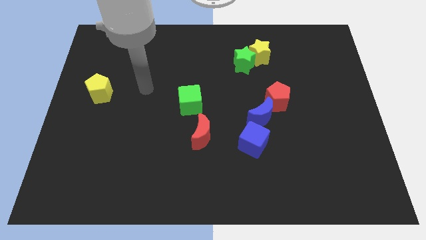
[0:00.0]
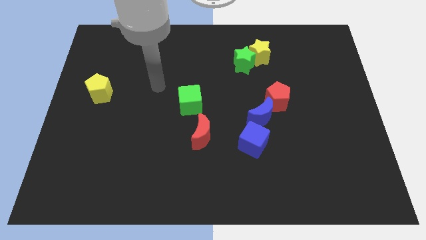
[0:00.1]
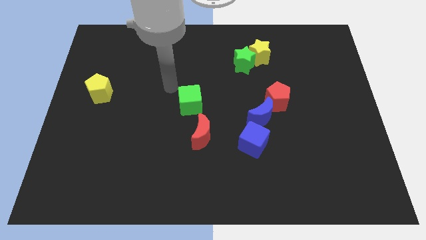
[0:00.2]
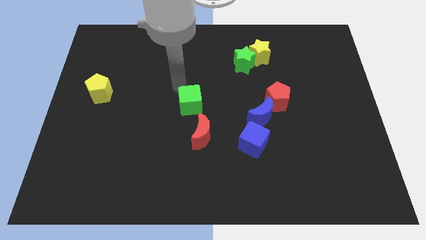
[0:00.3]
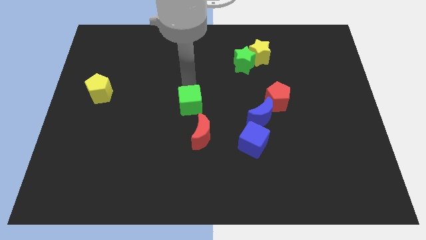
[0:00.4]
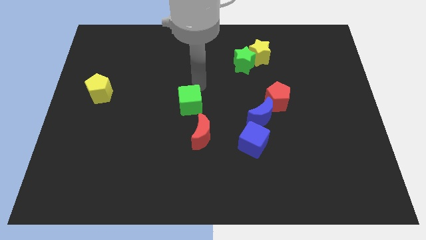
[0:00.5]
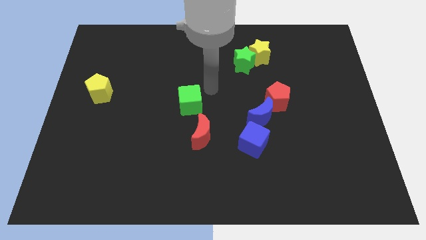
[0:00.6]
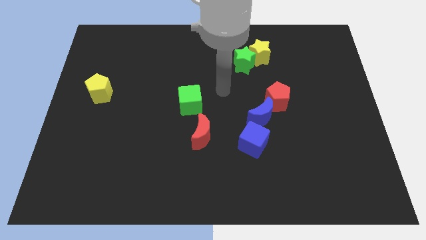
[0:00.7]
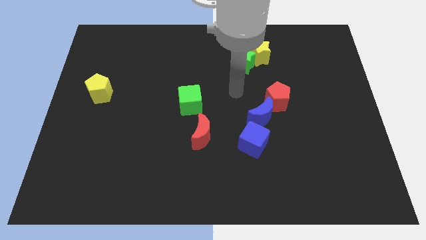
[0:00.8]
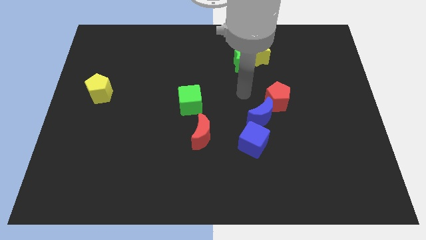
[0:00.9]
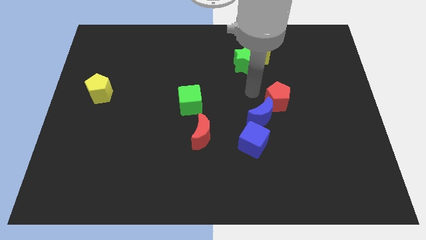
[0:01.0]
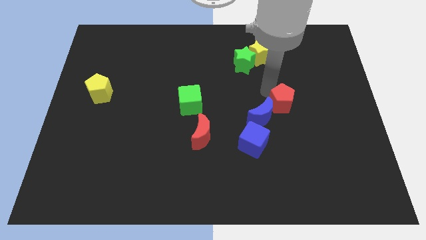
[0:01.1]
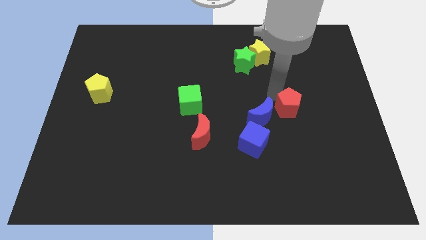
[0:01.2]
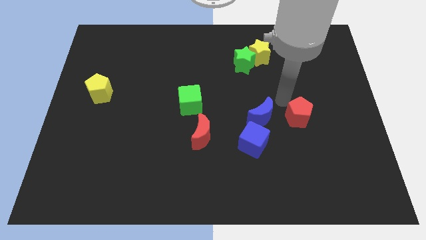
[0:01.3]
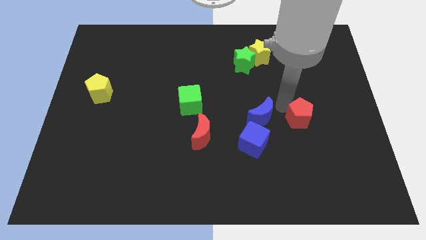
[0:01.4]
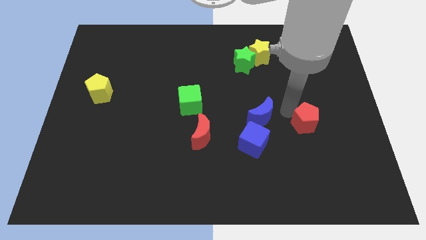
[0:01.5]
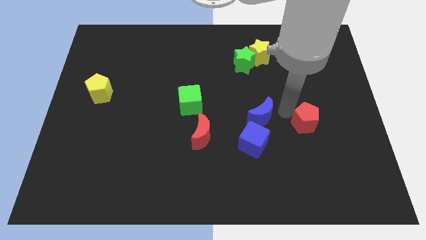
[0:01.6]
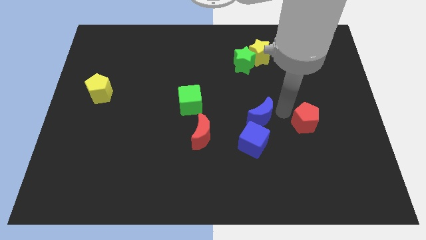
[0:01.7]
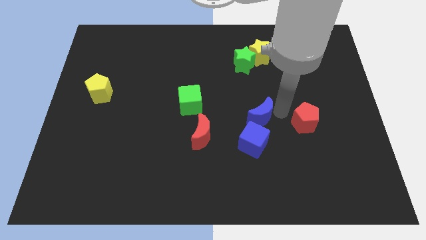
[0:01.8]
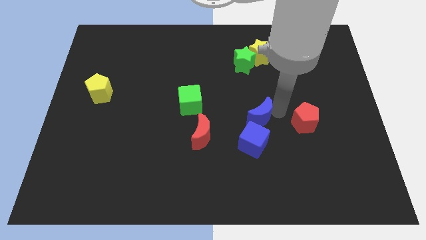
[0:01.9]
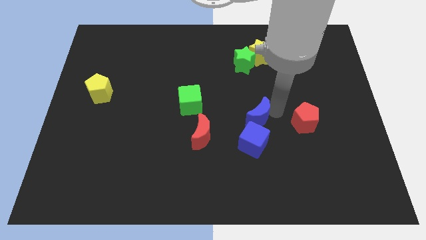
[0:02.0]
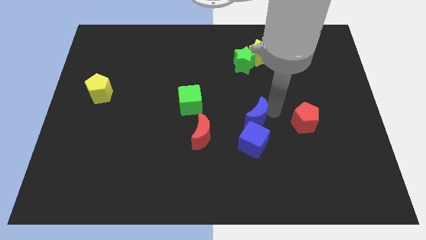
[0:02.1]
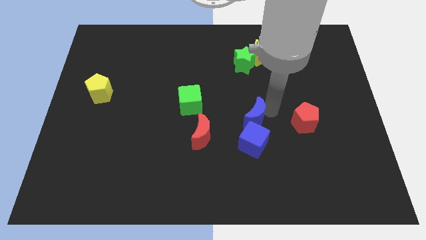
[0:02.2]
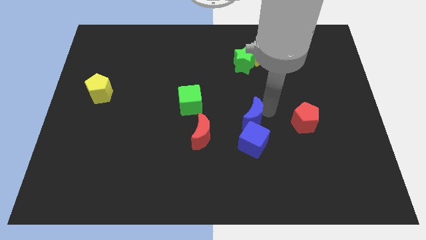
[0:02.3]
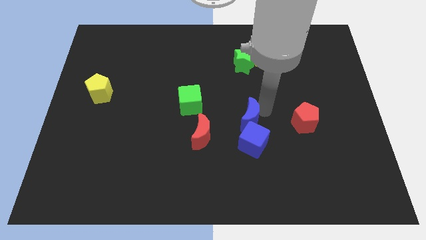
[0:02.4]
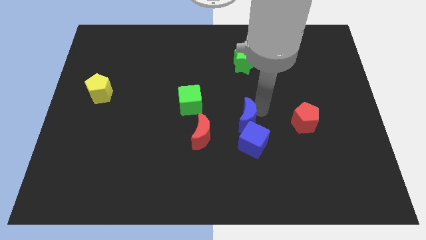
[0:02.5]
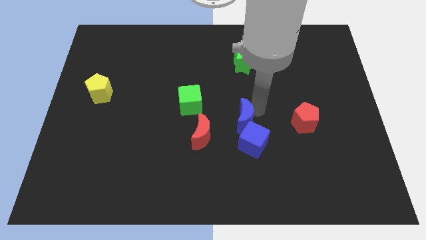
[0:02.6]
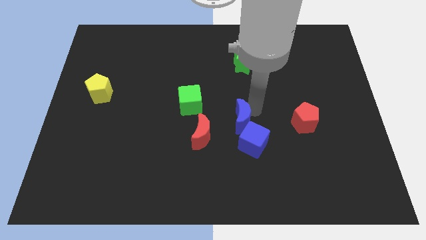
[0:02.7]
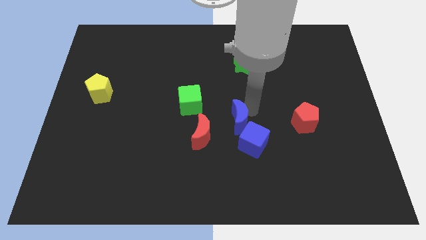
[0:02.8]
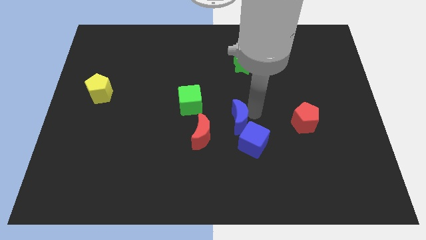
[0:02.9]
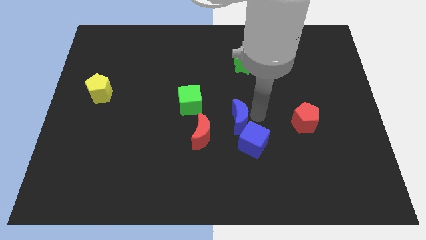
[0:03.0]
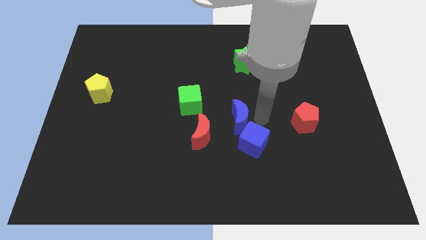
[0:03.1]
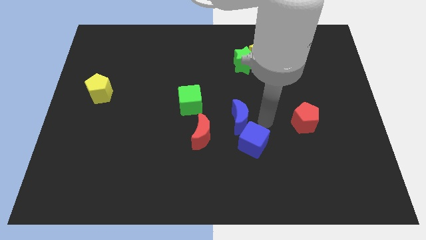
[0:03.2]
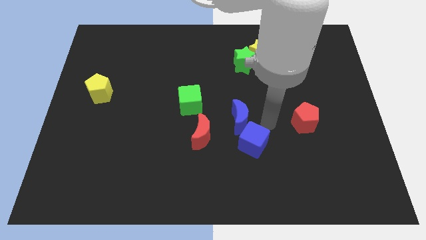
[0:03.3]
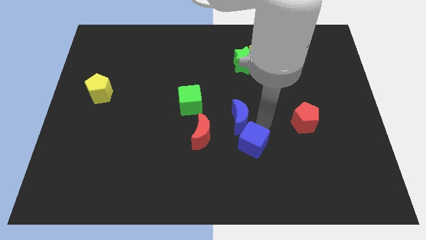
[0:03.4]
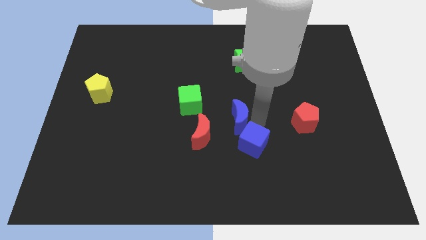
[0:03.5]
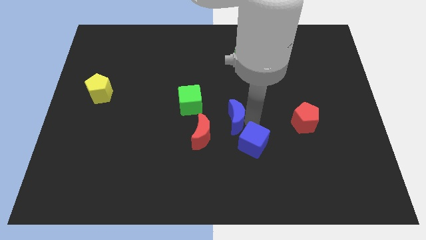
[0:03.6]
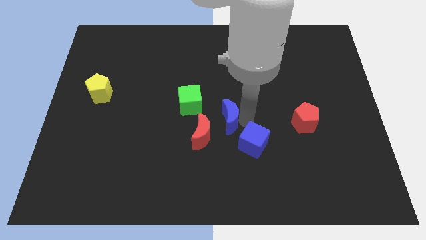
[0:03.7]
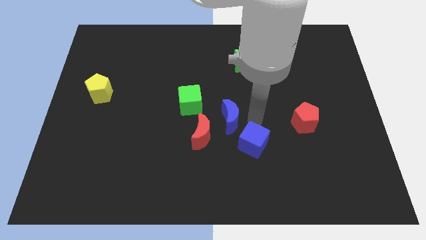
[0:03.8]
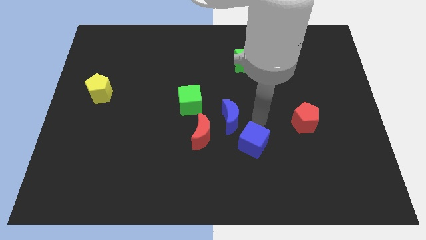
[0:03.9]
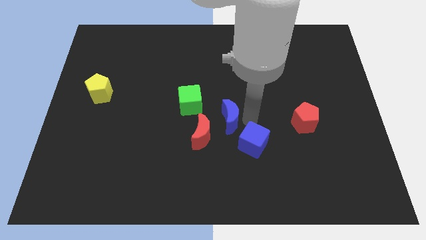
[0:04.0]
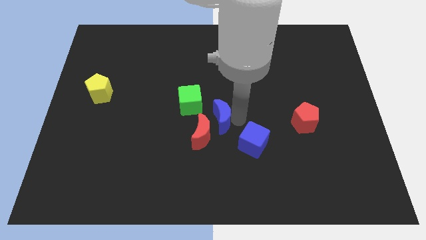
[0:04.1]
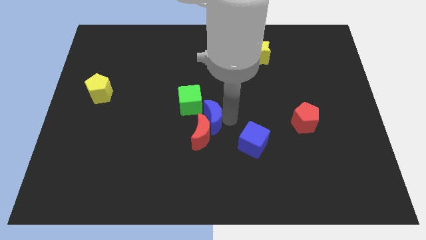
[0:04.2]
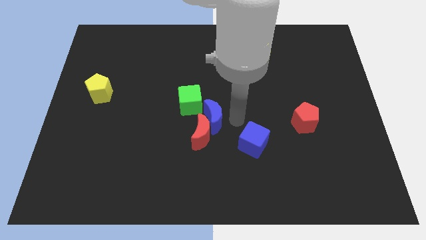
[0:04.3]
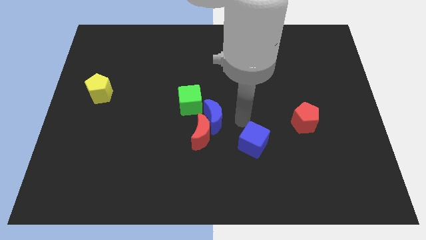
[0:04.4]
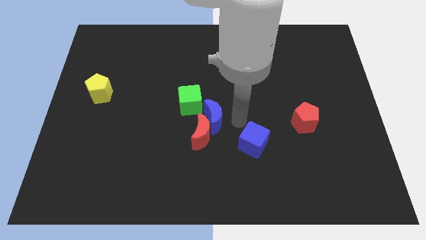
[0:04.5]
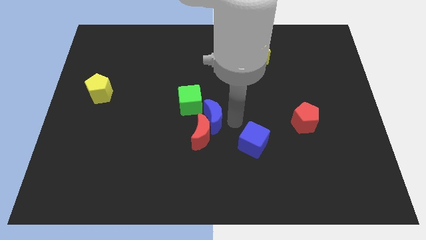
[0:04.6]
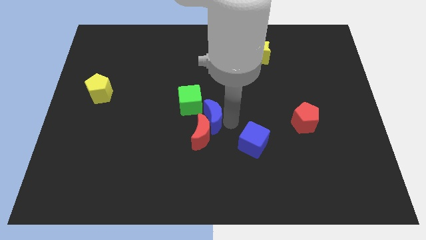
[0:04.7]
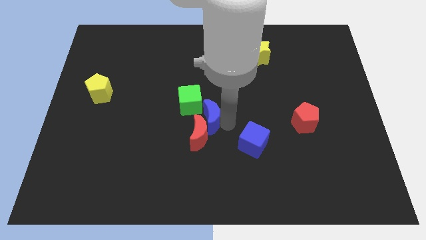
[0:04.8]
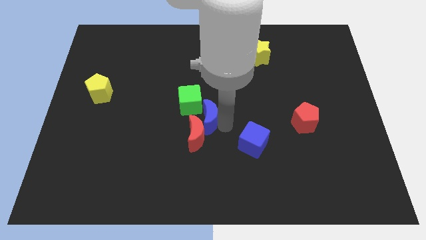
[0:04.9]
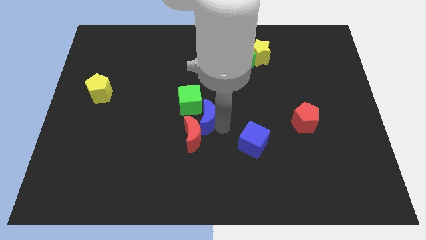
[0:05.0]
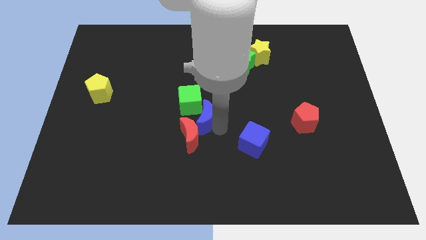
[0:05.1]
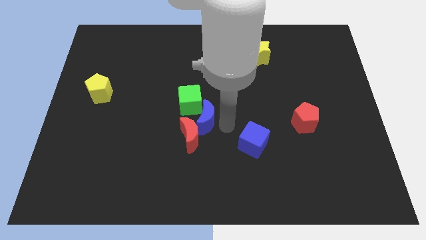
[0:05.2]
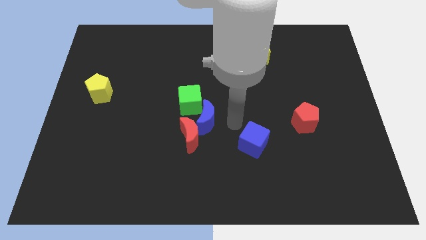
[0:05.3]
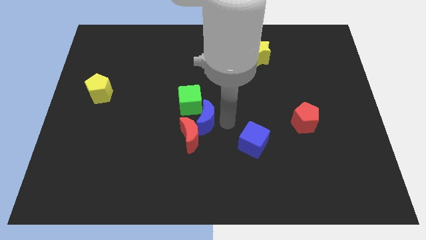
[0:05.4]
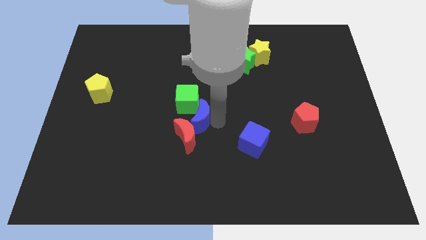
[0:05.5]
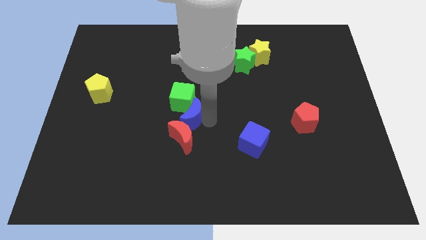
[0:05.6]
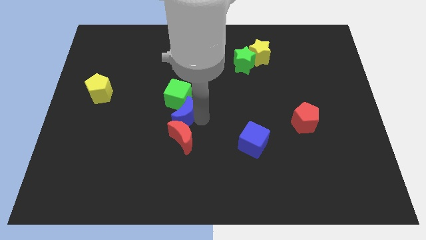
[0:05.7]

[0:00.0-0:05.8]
put the blue moon to the top left of the red moon

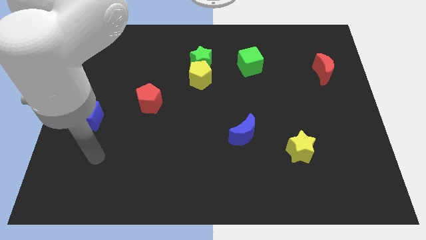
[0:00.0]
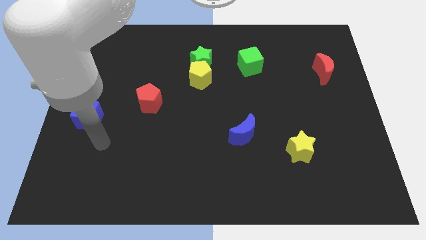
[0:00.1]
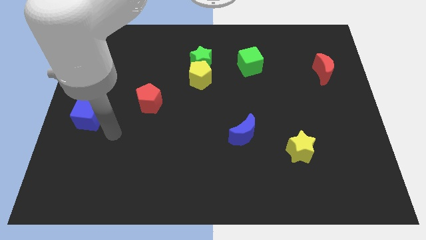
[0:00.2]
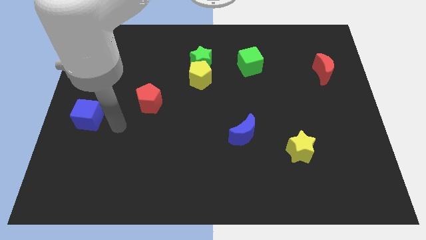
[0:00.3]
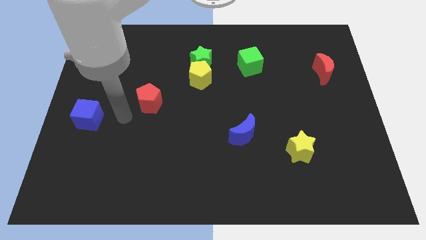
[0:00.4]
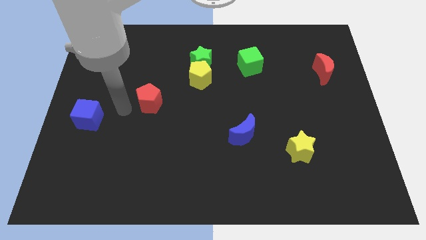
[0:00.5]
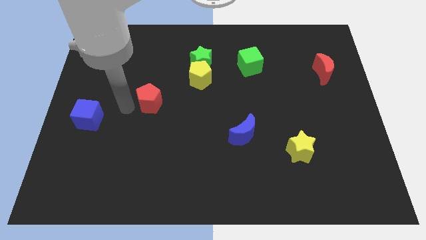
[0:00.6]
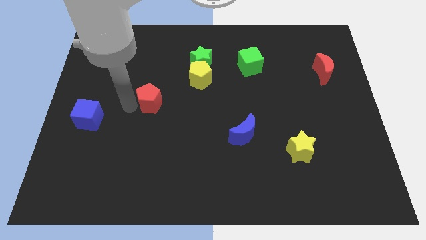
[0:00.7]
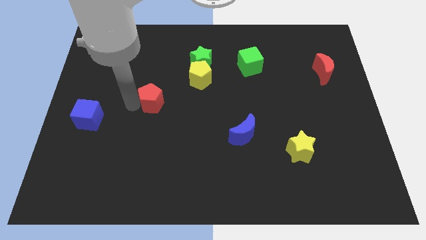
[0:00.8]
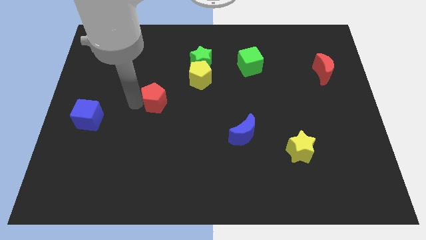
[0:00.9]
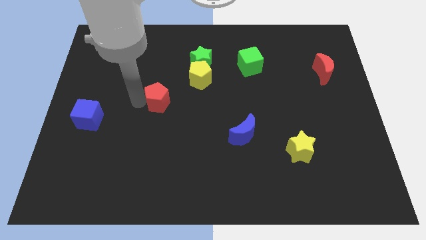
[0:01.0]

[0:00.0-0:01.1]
put the red pentagon diagonally down and to the left of the yellow pentagon
